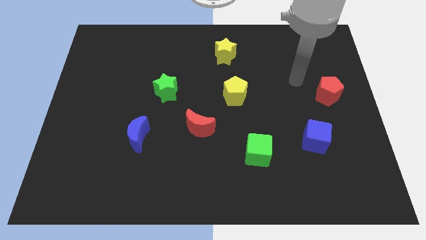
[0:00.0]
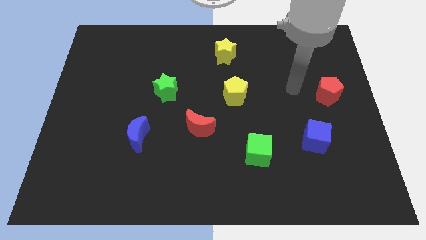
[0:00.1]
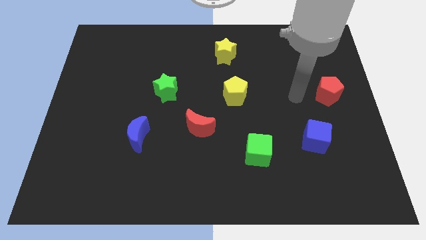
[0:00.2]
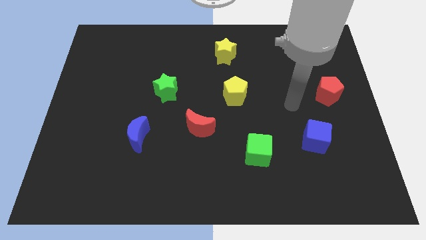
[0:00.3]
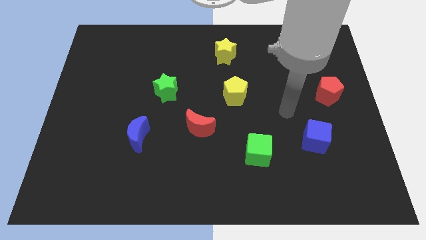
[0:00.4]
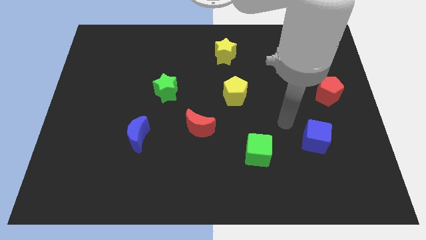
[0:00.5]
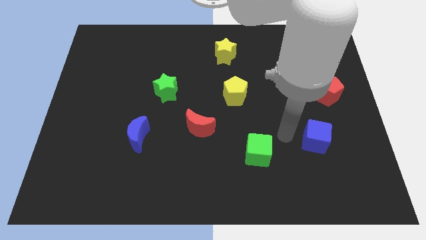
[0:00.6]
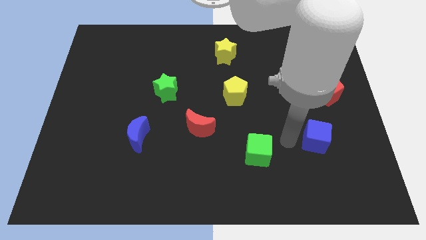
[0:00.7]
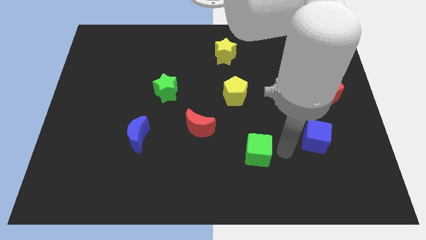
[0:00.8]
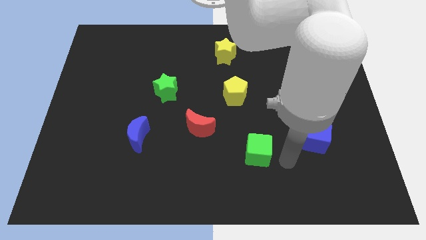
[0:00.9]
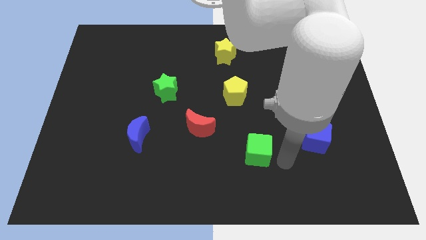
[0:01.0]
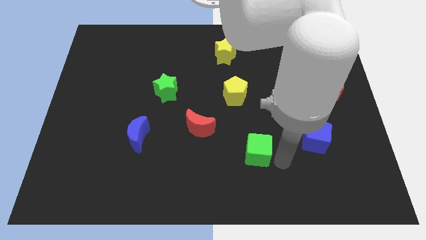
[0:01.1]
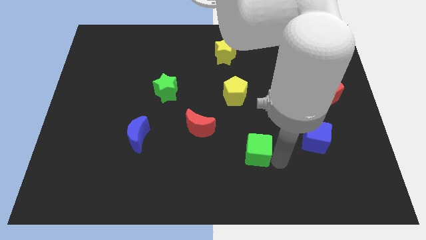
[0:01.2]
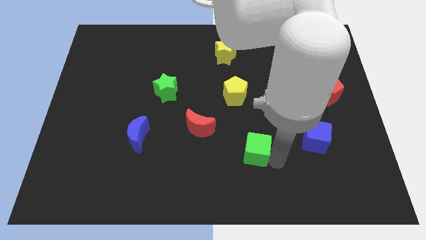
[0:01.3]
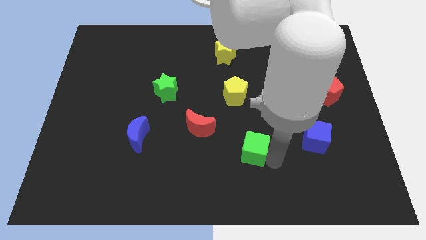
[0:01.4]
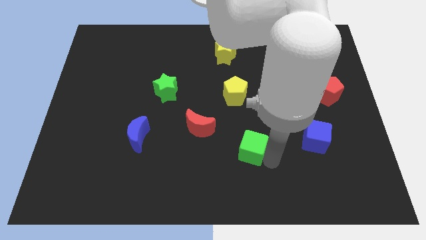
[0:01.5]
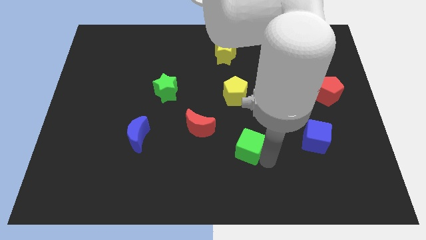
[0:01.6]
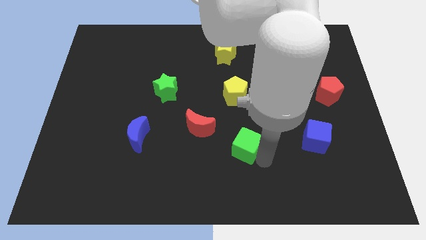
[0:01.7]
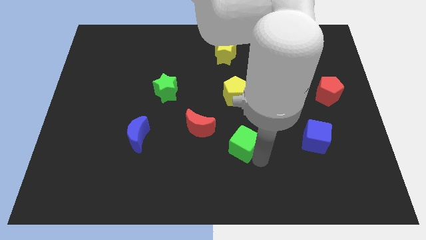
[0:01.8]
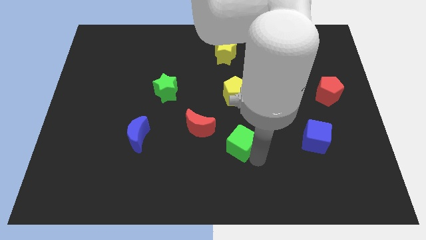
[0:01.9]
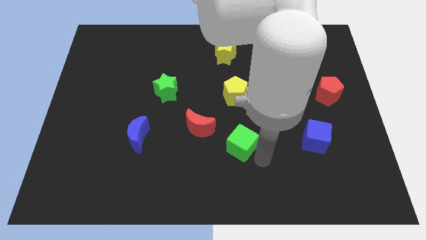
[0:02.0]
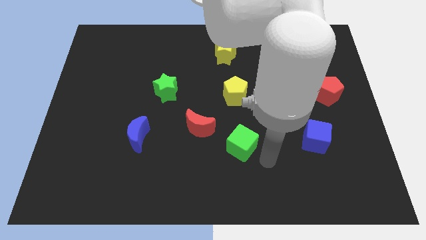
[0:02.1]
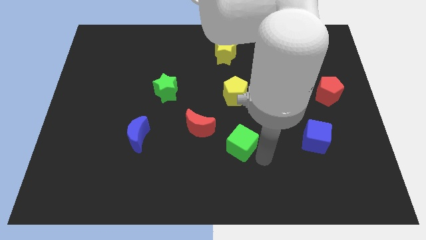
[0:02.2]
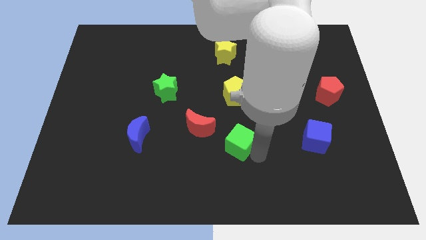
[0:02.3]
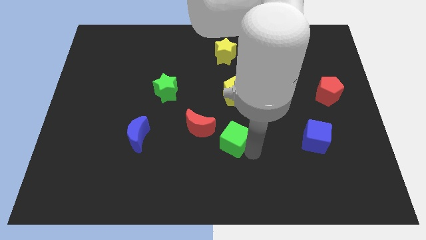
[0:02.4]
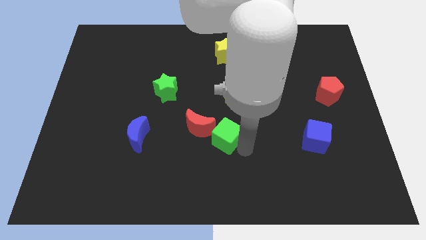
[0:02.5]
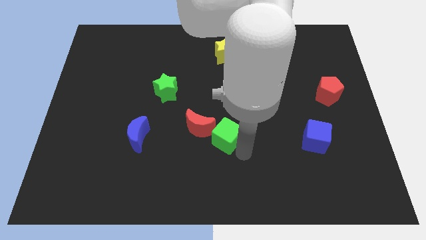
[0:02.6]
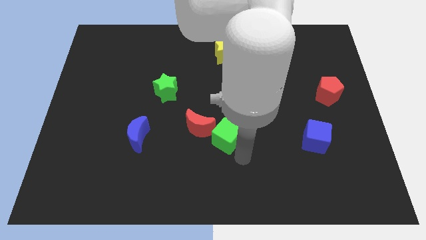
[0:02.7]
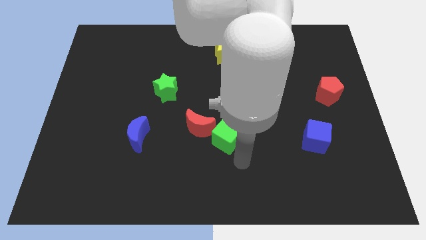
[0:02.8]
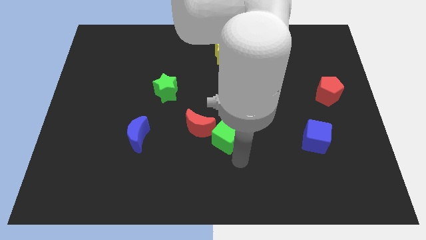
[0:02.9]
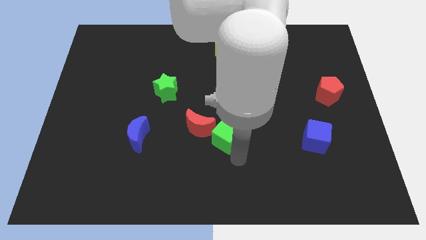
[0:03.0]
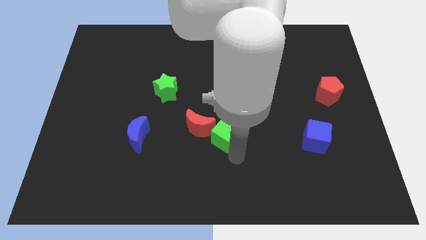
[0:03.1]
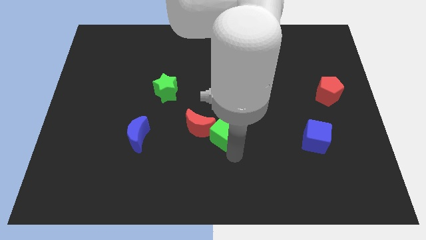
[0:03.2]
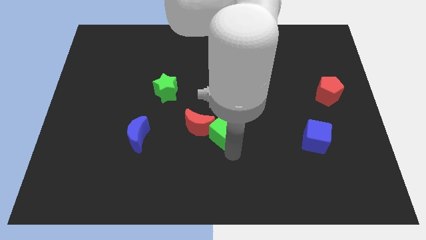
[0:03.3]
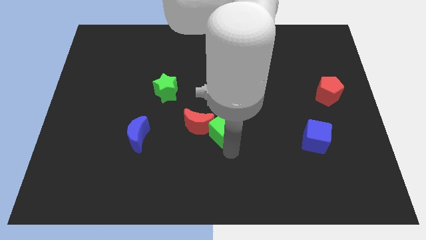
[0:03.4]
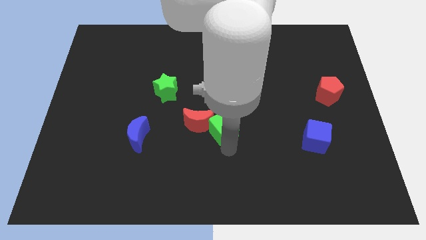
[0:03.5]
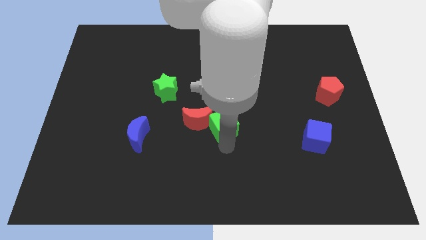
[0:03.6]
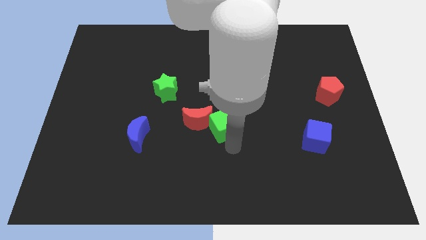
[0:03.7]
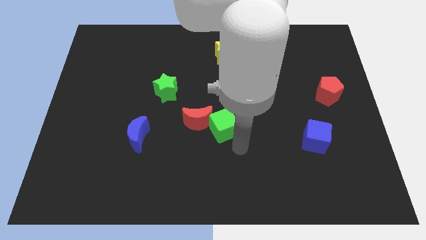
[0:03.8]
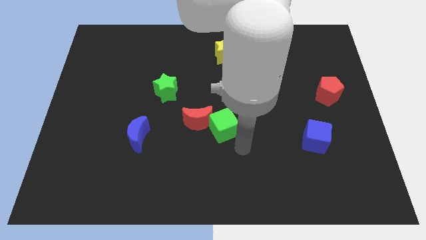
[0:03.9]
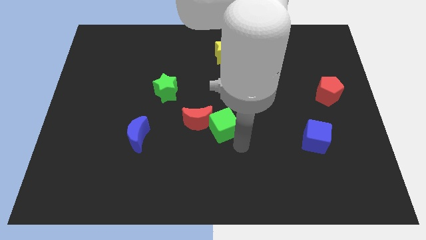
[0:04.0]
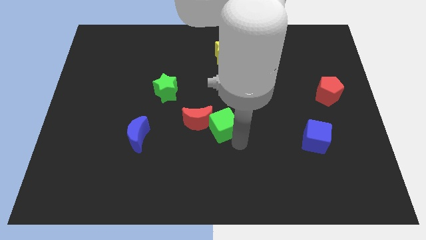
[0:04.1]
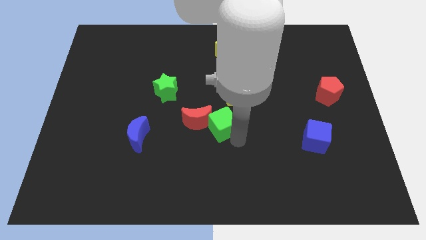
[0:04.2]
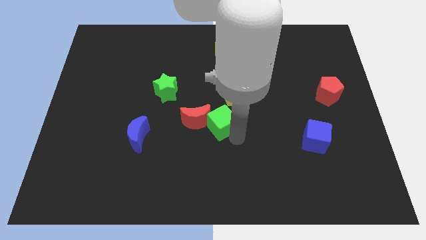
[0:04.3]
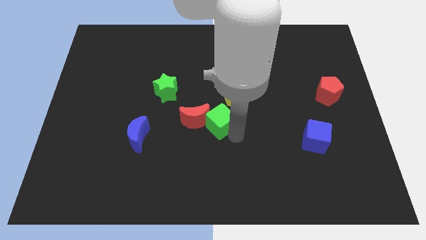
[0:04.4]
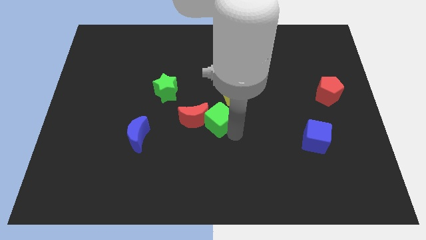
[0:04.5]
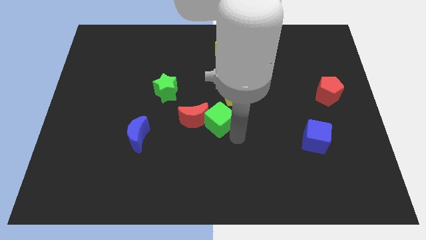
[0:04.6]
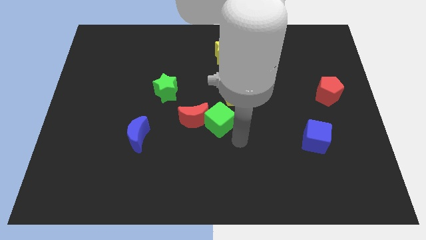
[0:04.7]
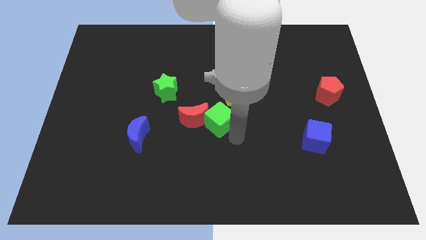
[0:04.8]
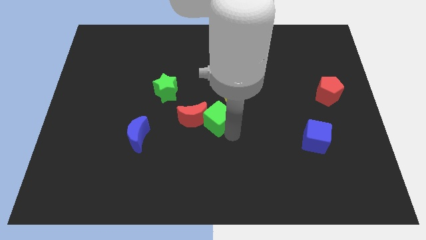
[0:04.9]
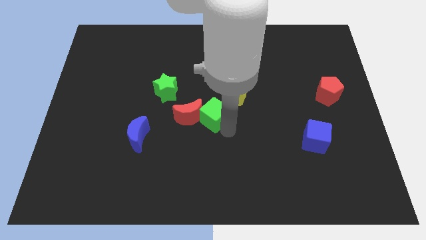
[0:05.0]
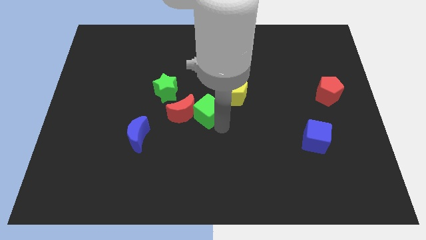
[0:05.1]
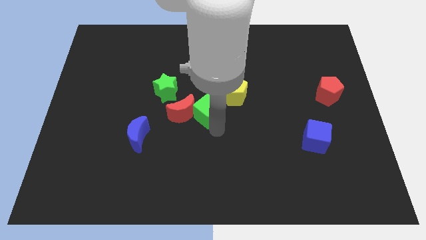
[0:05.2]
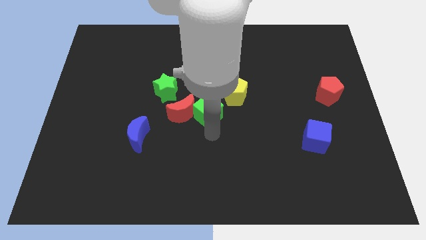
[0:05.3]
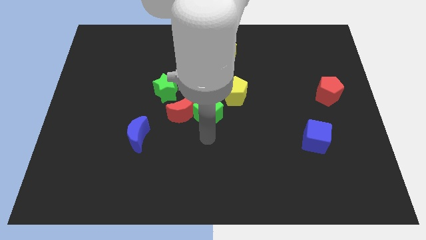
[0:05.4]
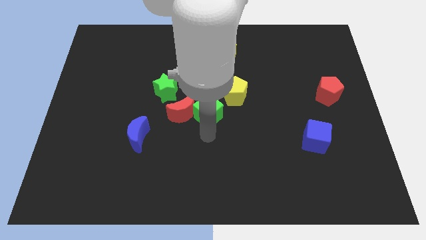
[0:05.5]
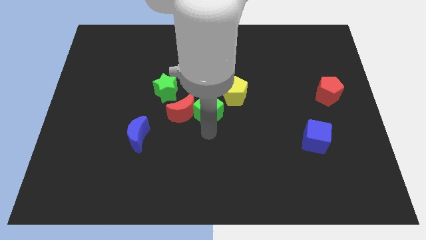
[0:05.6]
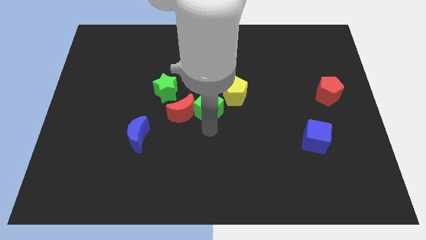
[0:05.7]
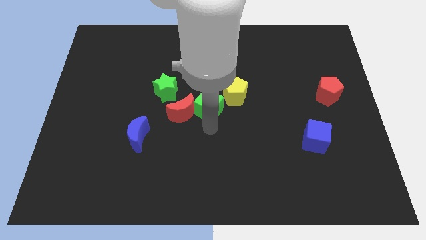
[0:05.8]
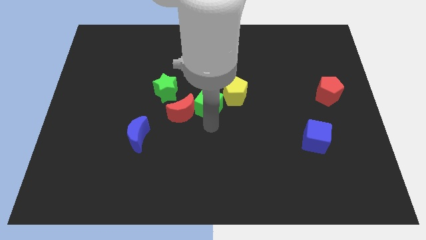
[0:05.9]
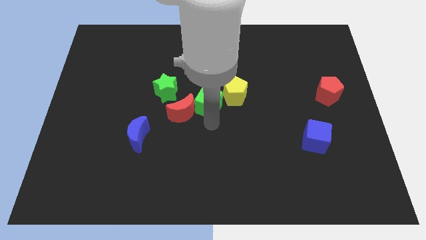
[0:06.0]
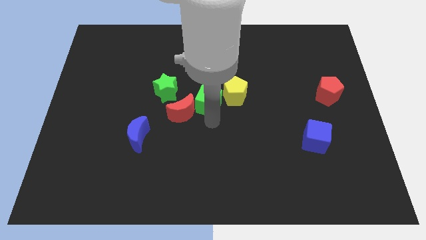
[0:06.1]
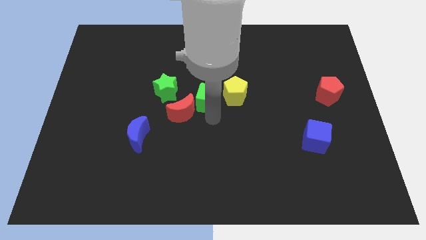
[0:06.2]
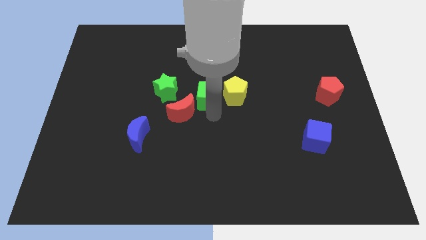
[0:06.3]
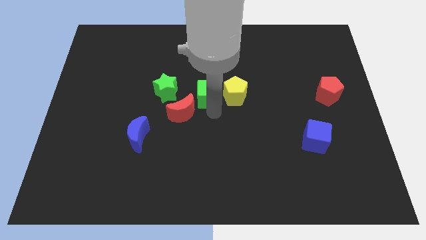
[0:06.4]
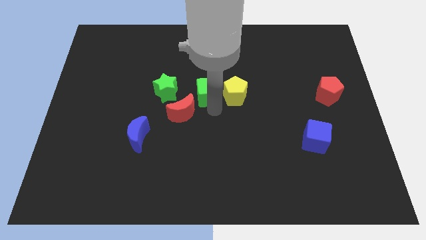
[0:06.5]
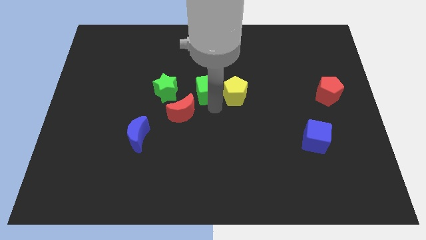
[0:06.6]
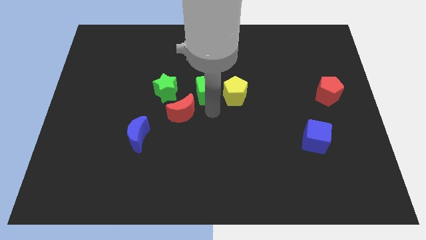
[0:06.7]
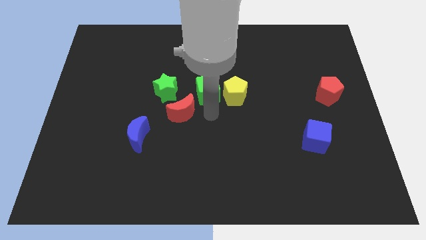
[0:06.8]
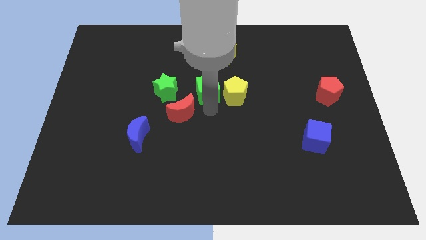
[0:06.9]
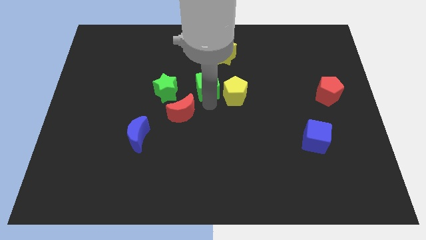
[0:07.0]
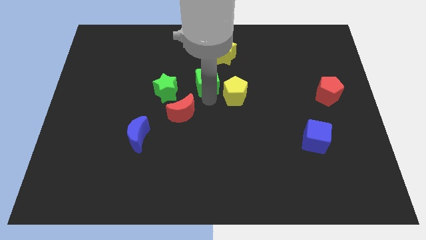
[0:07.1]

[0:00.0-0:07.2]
move the green cube upwards and to the left

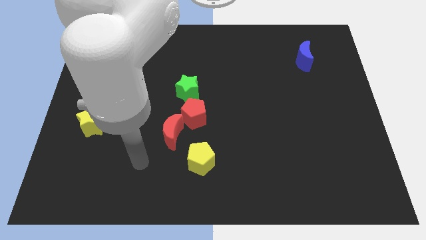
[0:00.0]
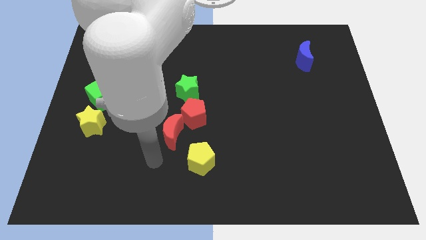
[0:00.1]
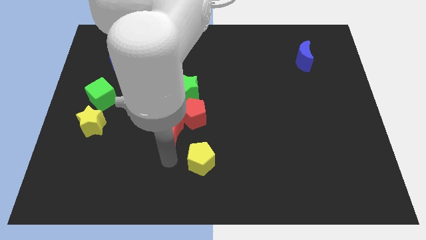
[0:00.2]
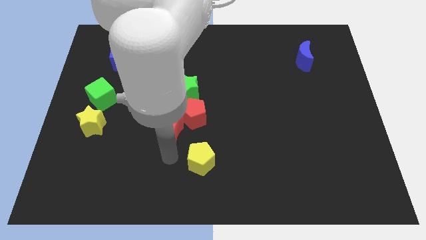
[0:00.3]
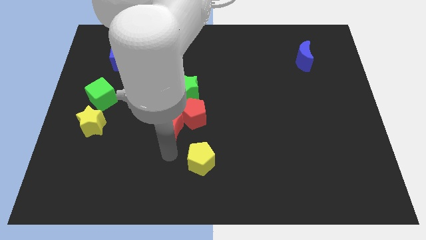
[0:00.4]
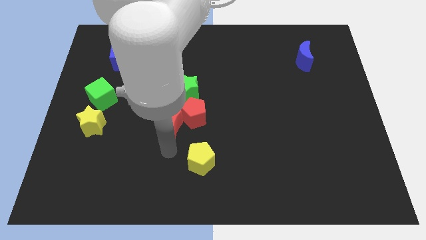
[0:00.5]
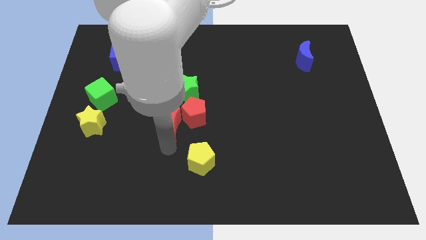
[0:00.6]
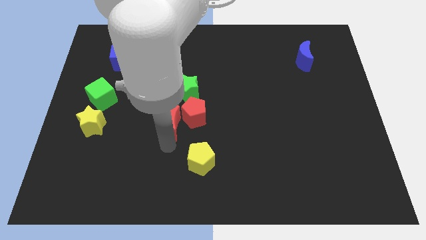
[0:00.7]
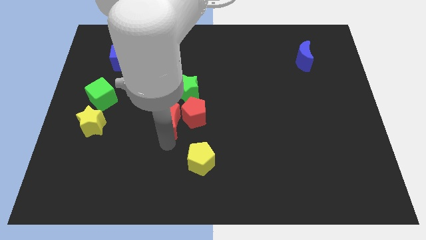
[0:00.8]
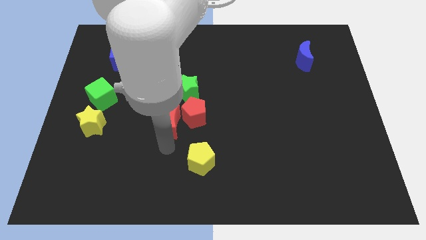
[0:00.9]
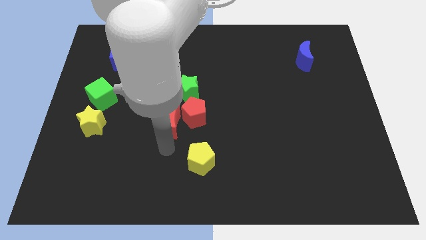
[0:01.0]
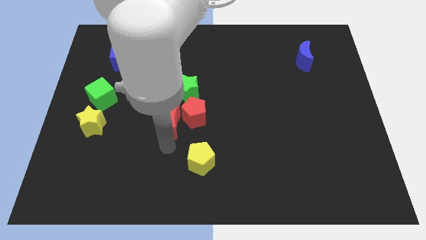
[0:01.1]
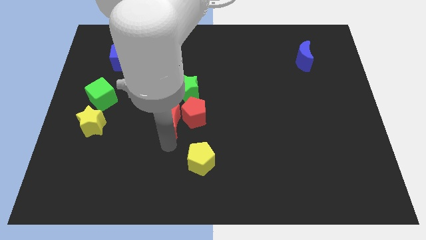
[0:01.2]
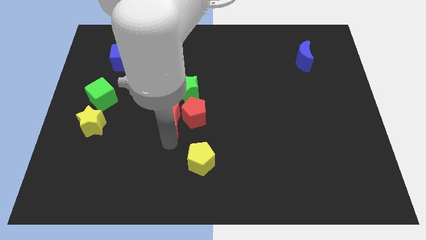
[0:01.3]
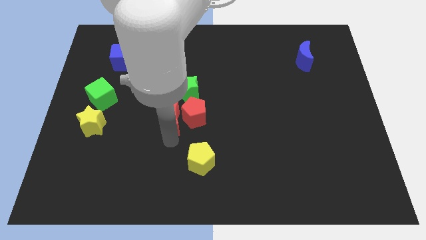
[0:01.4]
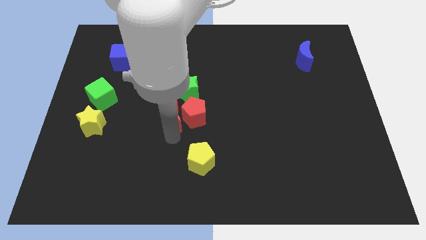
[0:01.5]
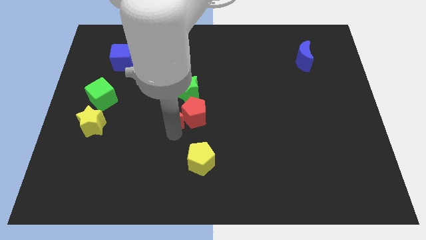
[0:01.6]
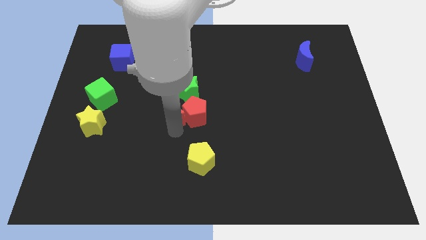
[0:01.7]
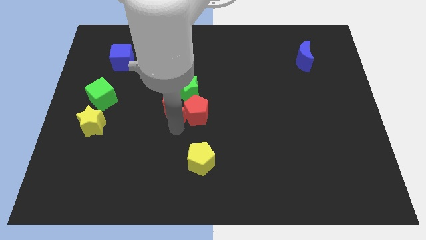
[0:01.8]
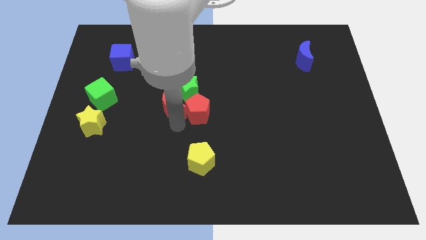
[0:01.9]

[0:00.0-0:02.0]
slightly slide the red moon upwards
